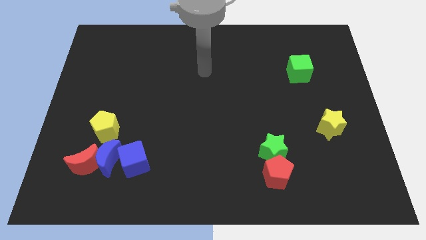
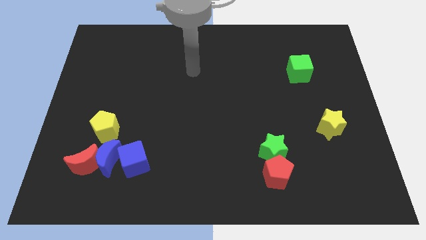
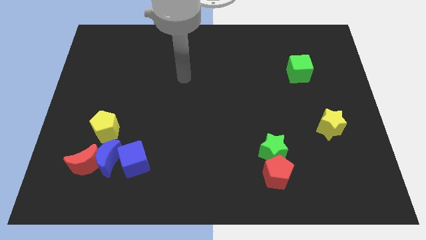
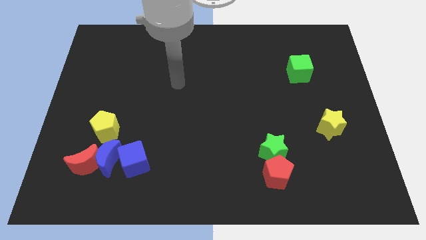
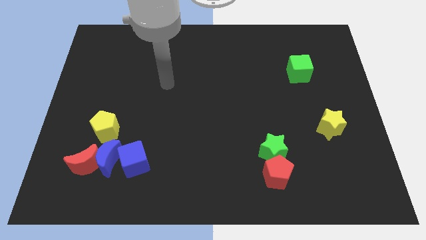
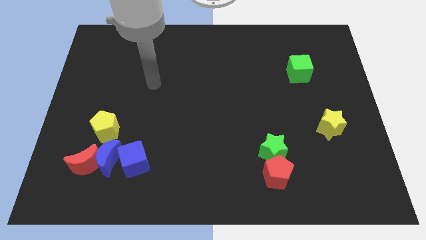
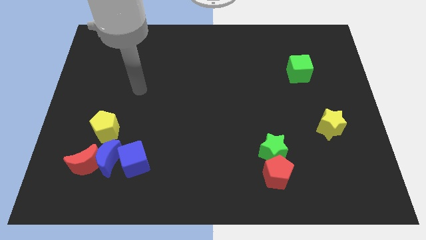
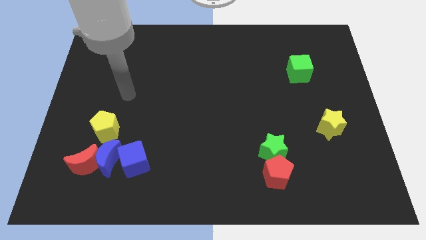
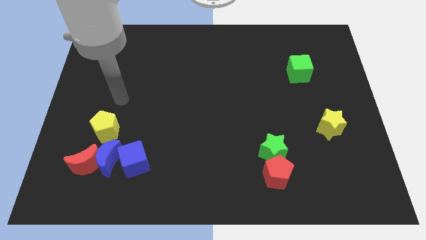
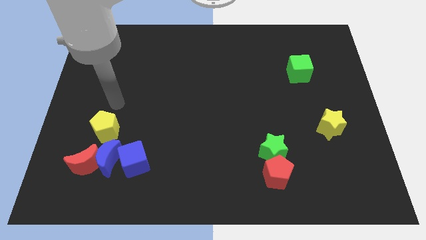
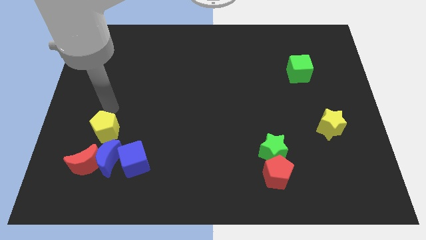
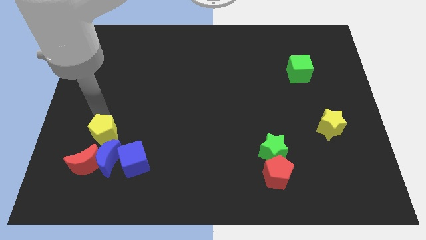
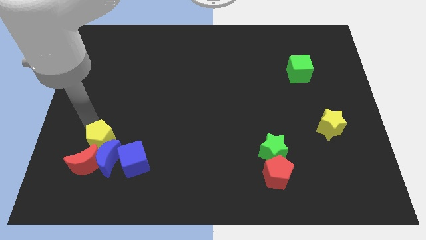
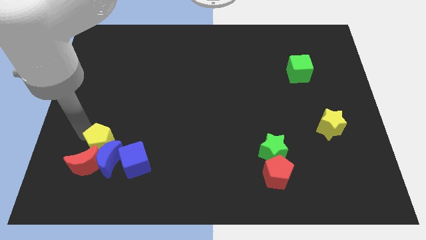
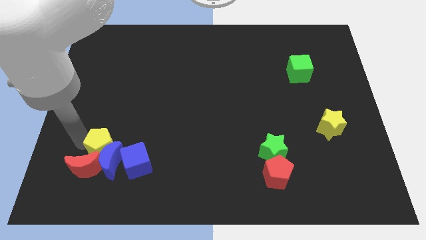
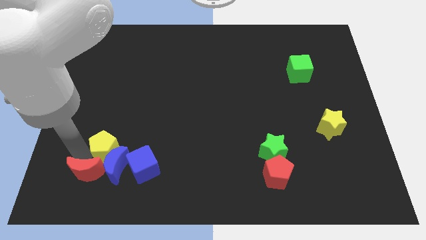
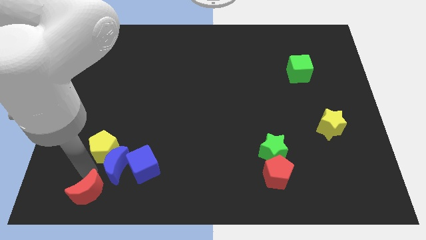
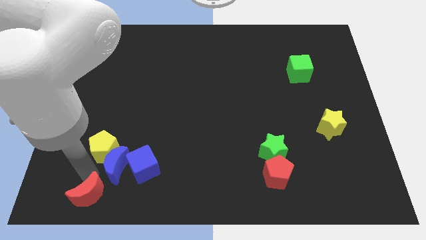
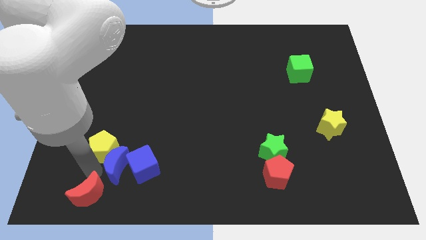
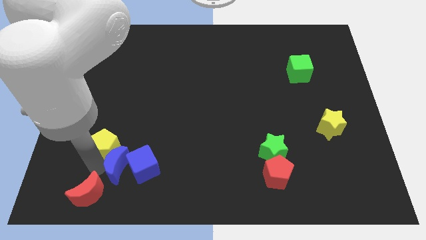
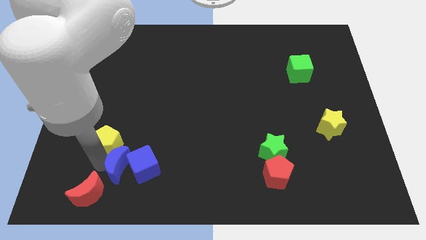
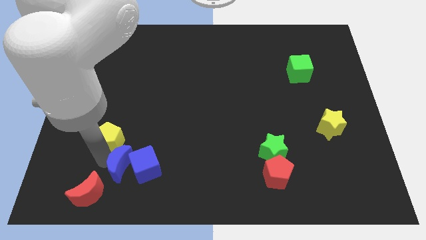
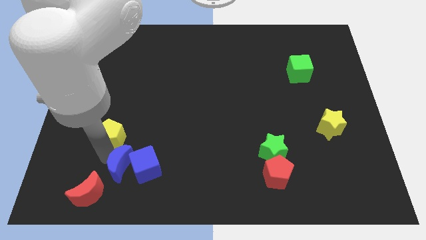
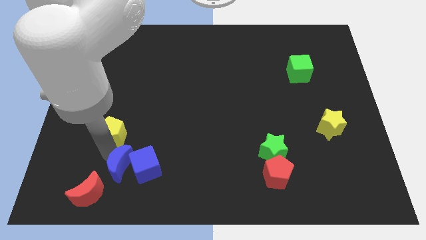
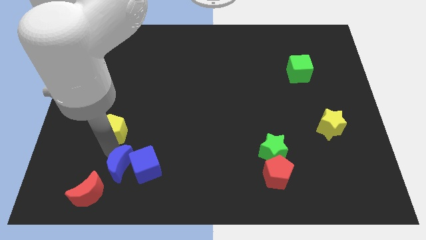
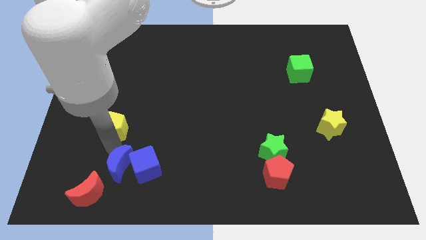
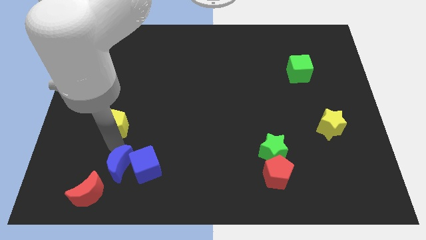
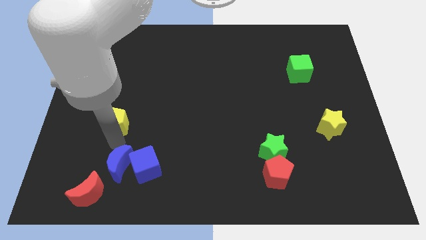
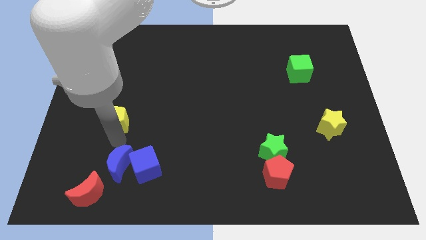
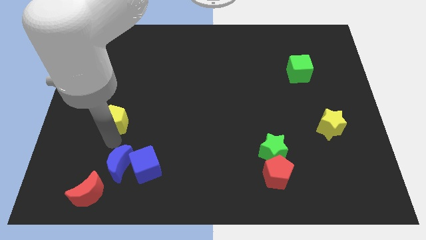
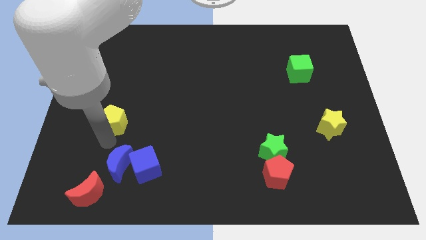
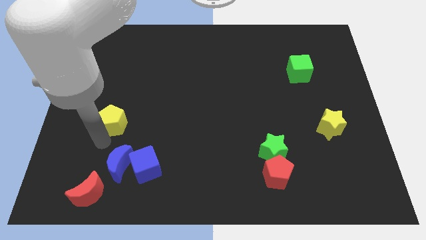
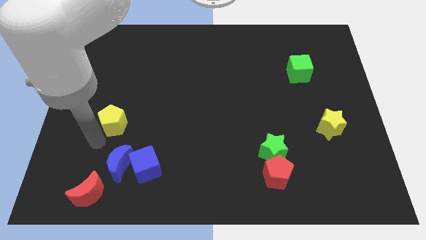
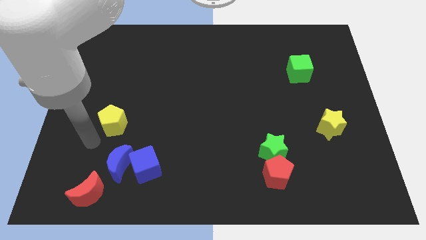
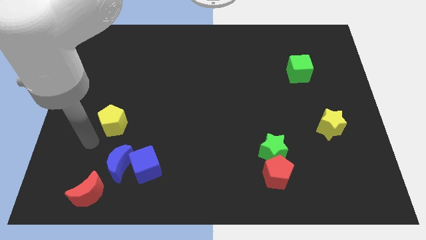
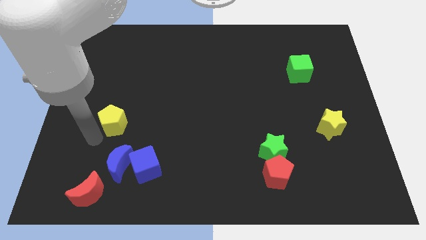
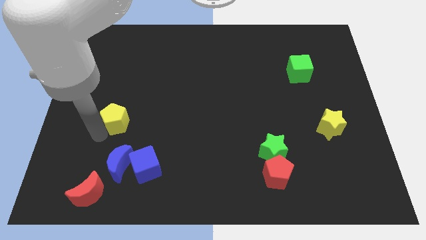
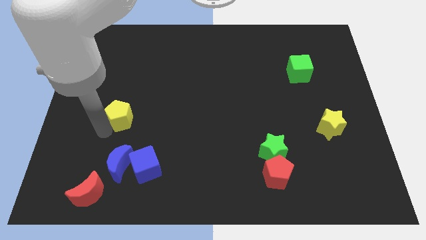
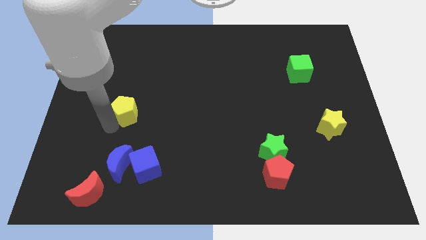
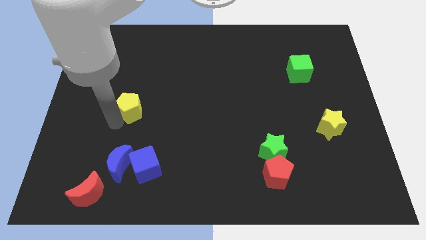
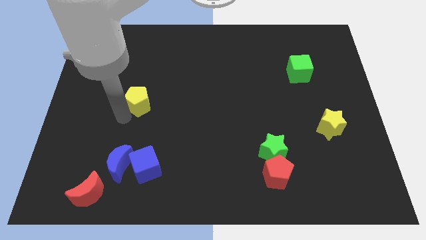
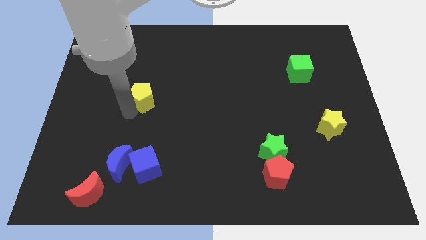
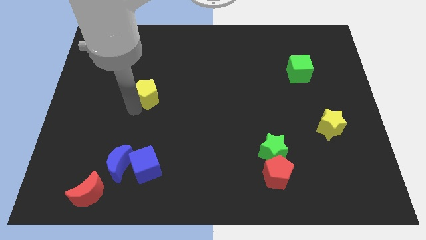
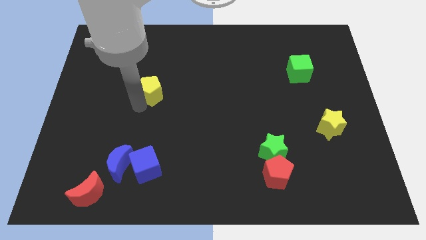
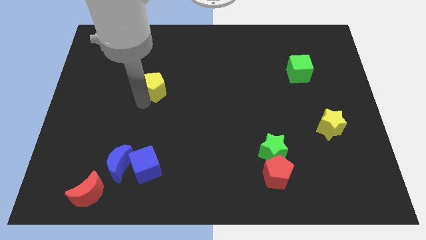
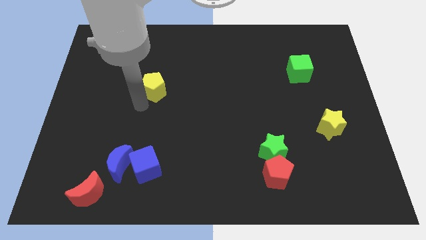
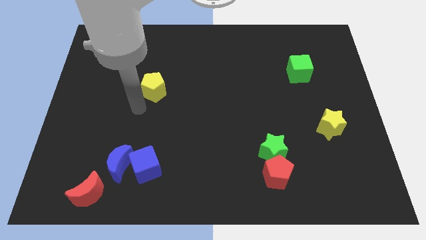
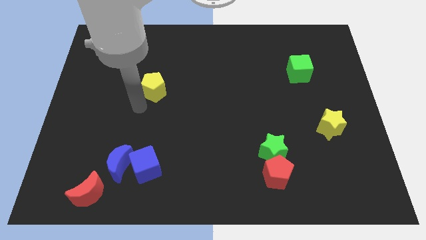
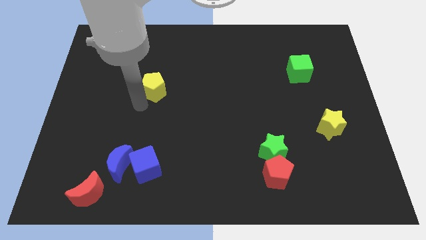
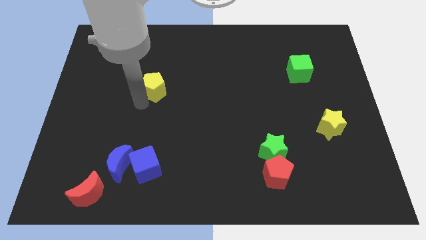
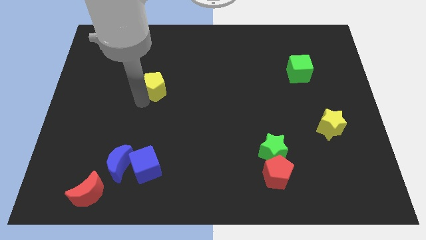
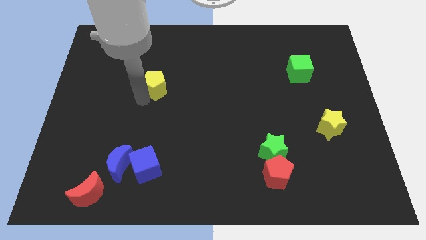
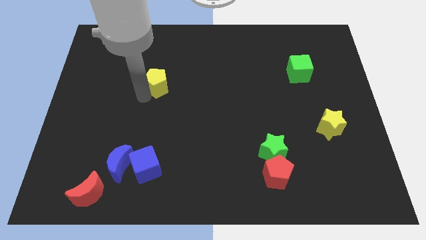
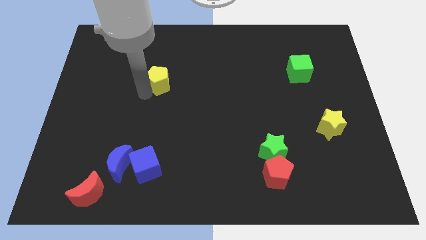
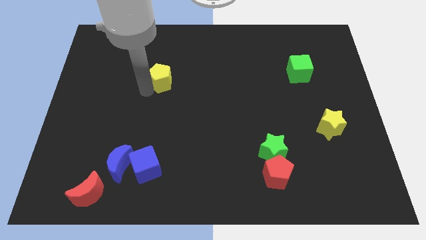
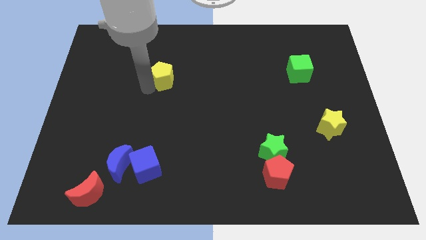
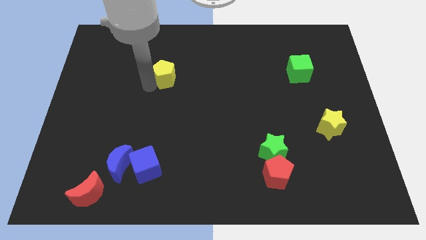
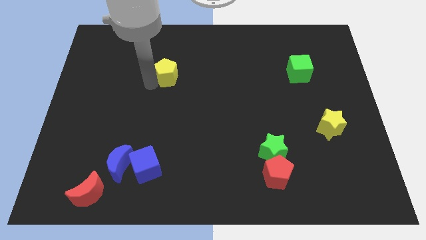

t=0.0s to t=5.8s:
move the yellow pentagon upwards and to the right

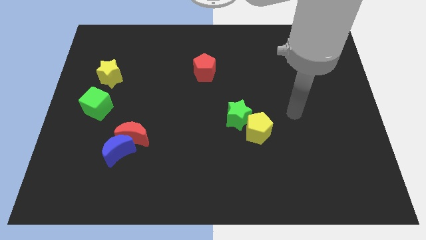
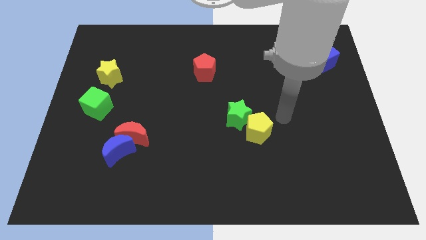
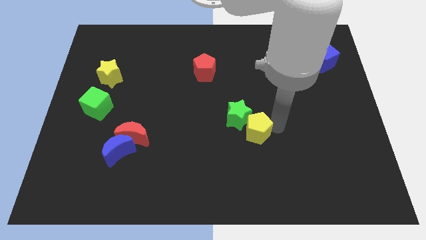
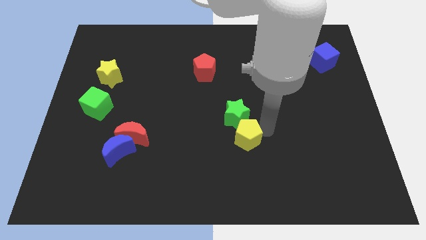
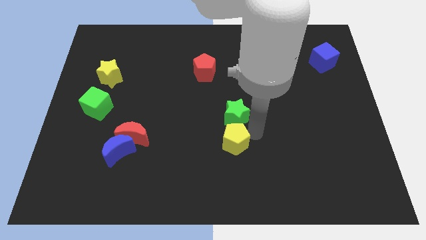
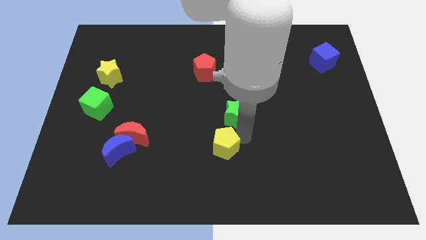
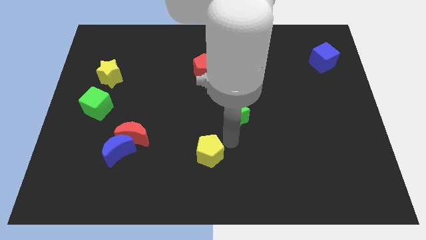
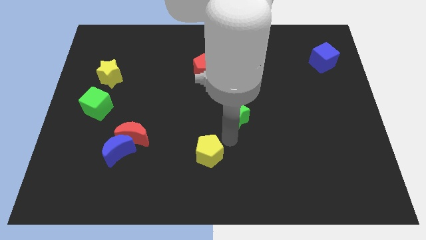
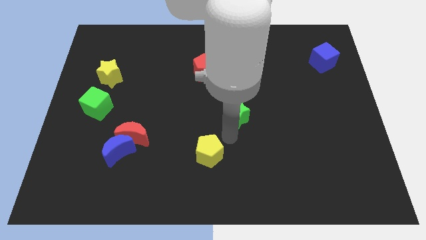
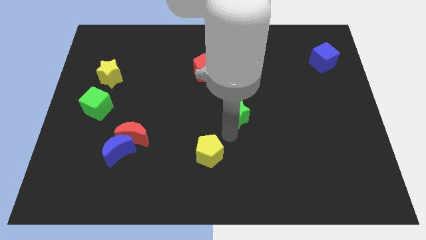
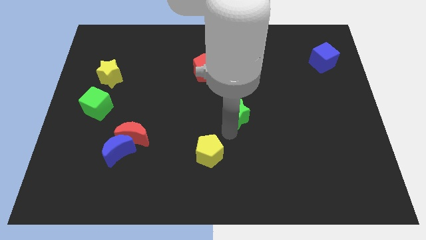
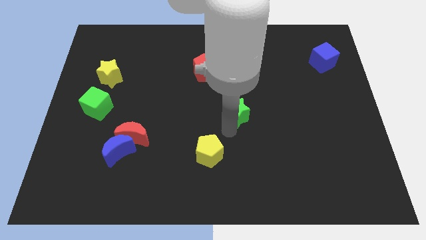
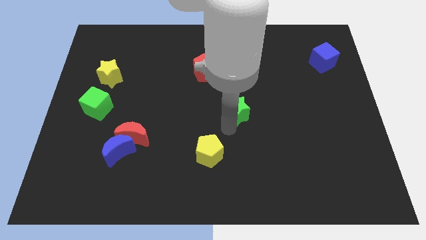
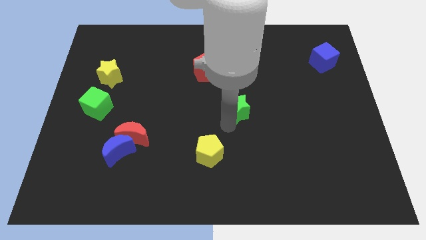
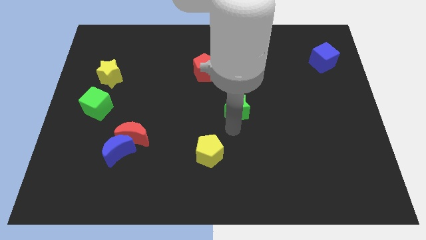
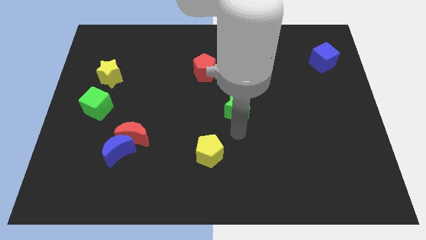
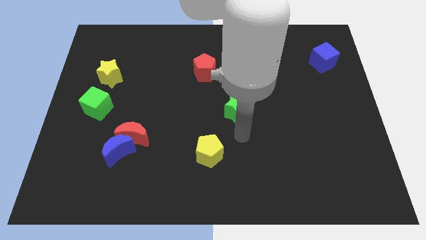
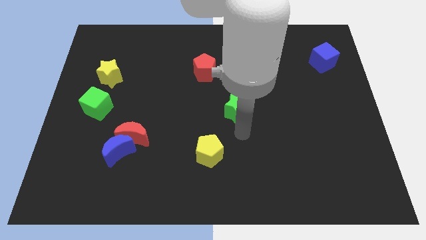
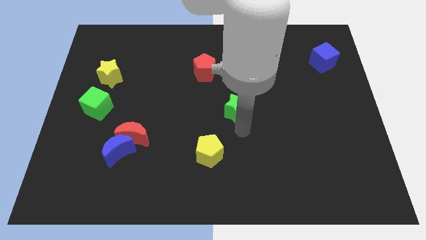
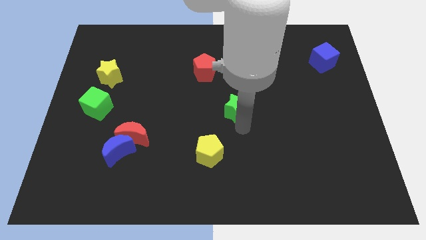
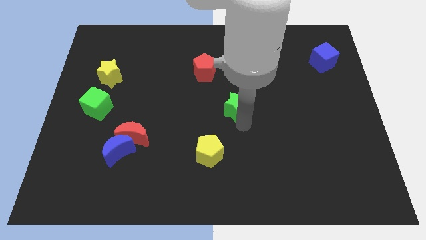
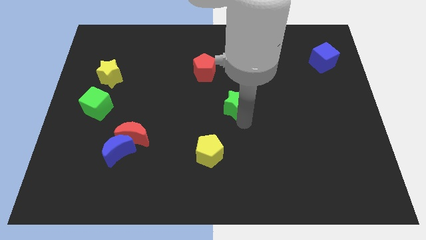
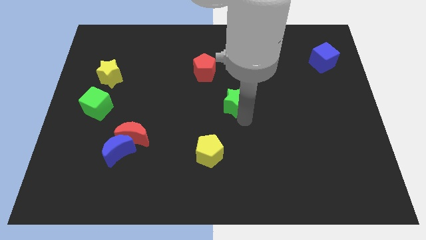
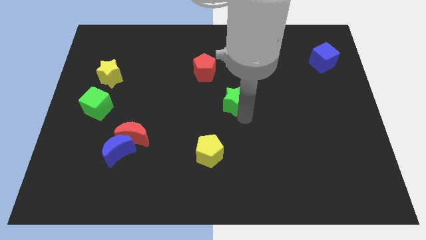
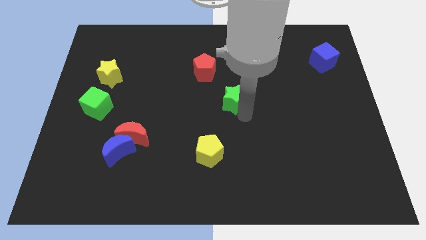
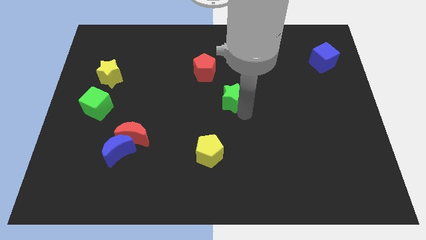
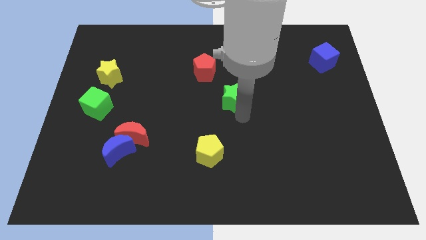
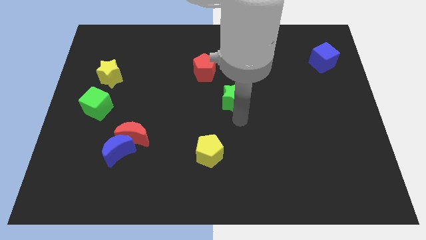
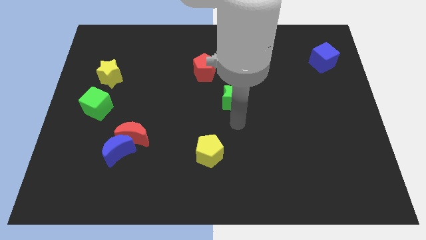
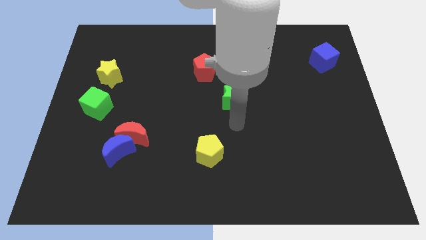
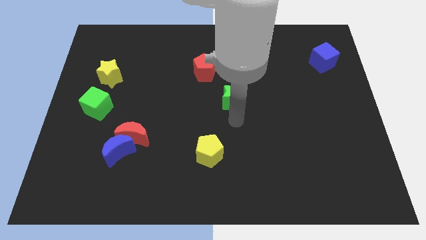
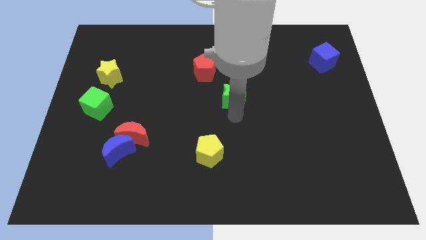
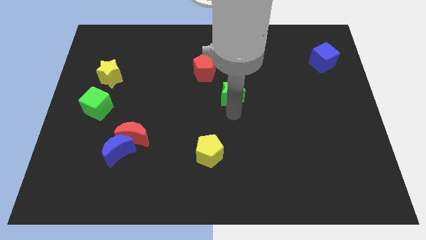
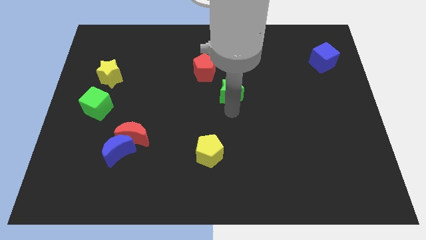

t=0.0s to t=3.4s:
move the green star a bit up
